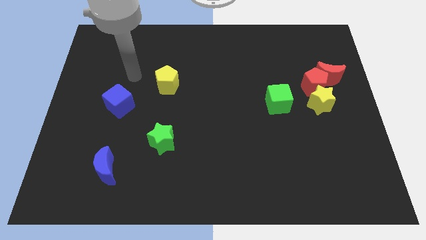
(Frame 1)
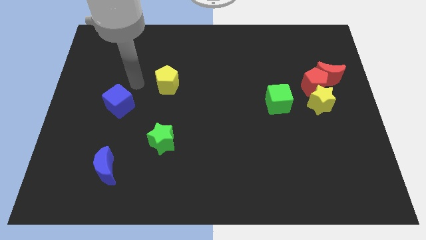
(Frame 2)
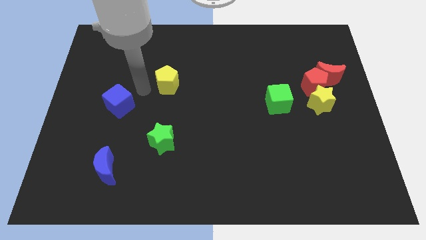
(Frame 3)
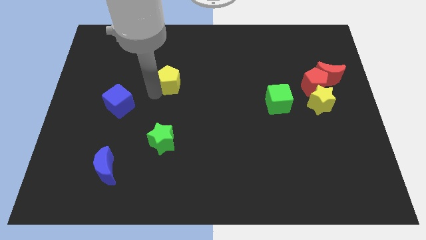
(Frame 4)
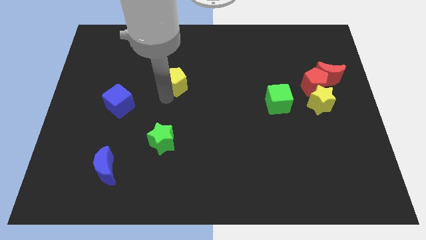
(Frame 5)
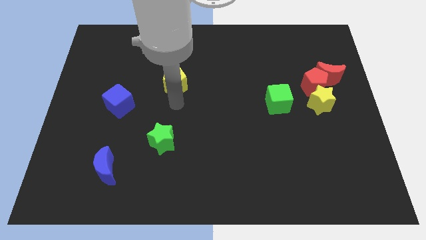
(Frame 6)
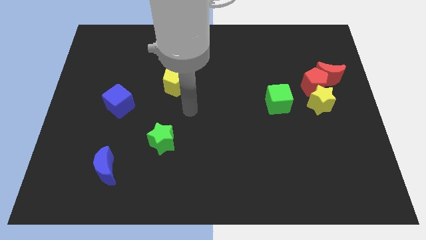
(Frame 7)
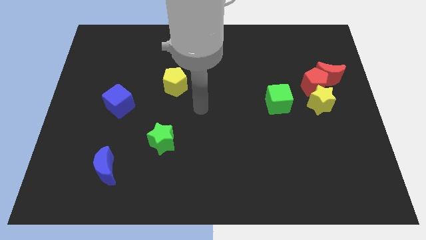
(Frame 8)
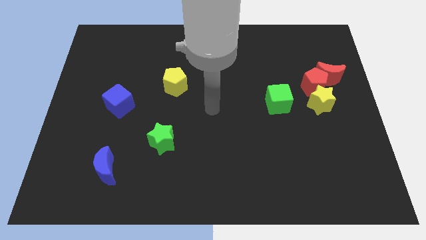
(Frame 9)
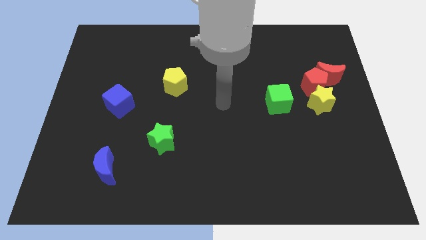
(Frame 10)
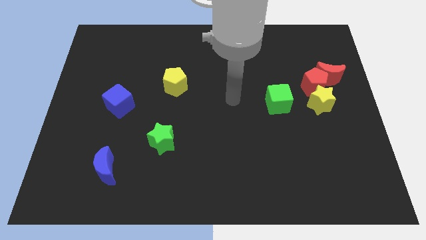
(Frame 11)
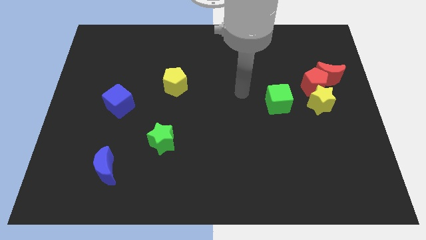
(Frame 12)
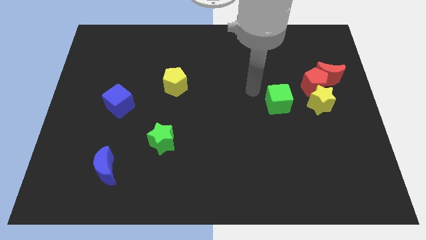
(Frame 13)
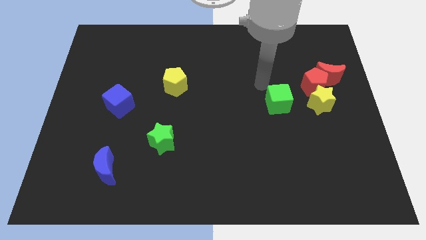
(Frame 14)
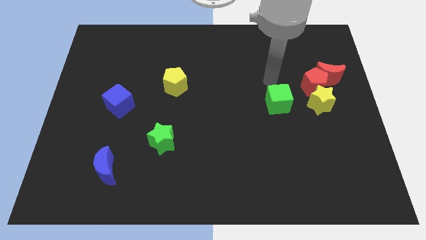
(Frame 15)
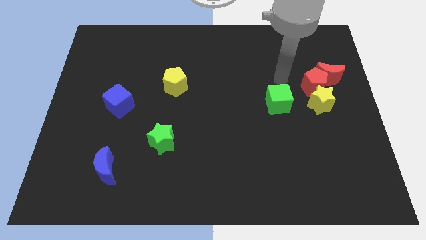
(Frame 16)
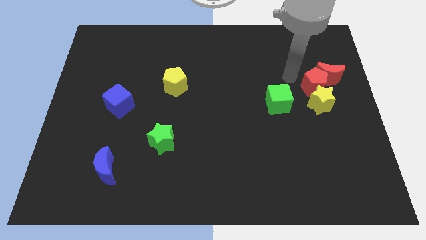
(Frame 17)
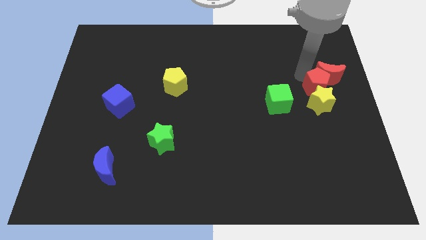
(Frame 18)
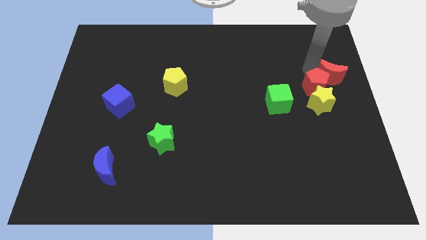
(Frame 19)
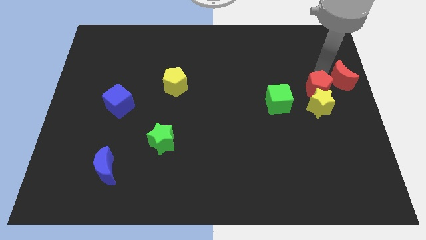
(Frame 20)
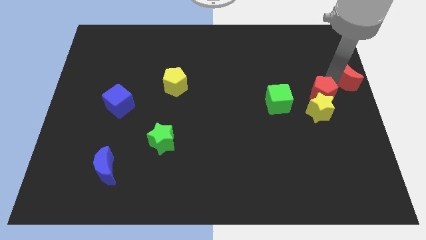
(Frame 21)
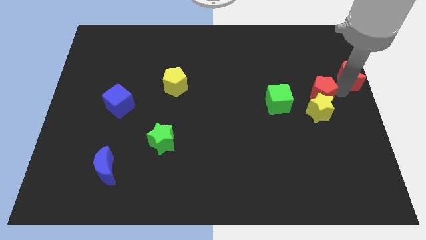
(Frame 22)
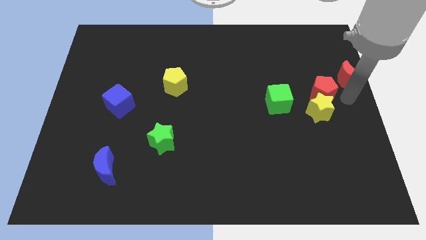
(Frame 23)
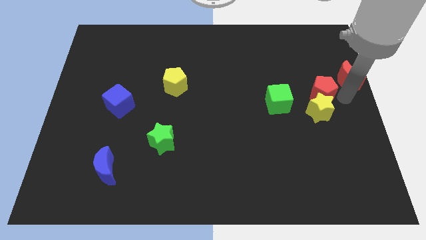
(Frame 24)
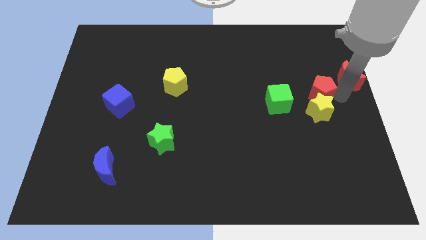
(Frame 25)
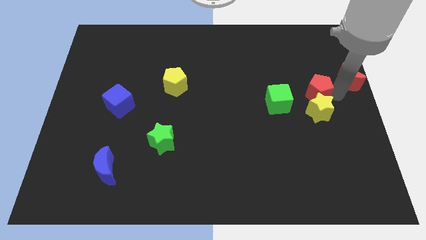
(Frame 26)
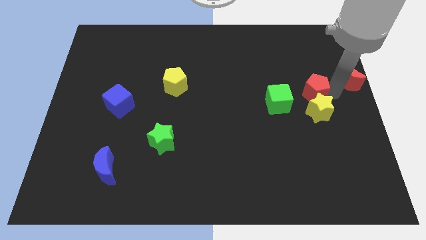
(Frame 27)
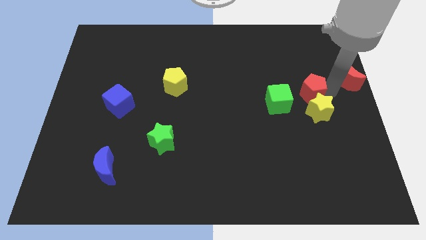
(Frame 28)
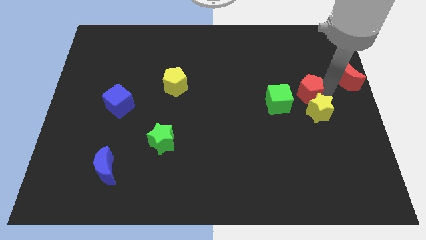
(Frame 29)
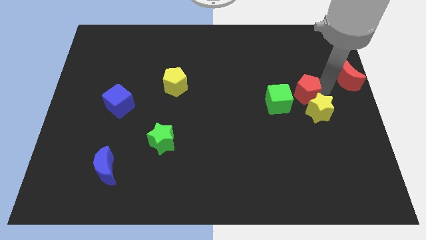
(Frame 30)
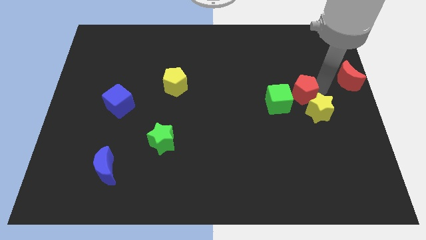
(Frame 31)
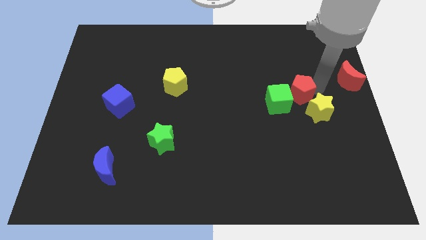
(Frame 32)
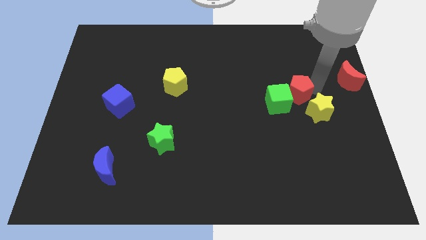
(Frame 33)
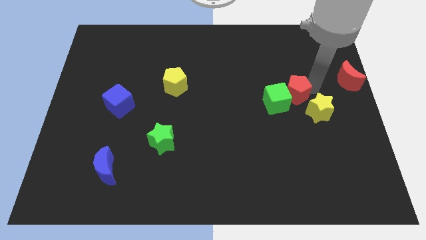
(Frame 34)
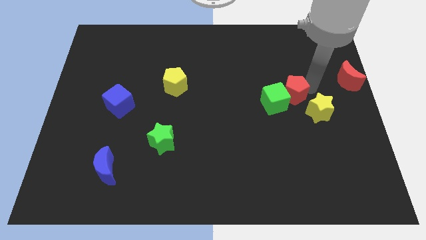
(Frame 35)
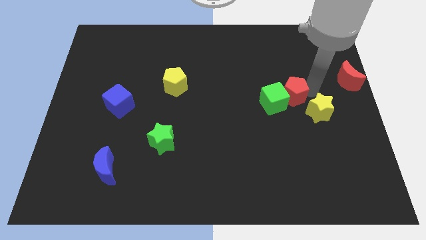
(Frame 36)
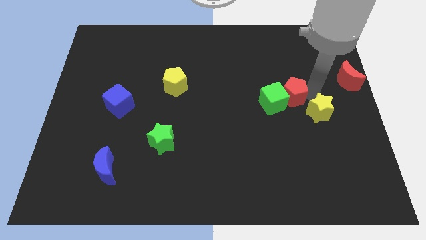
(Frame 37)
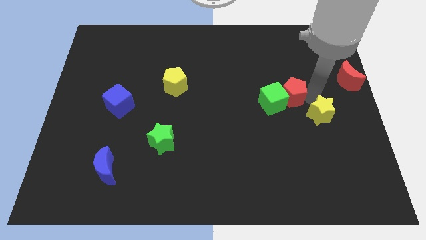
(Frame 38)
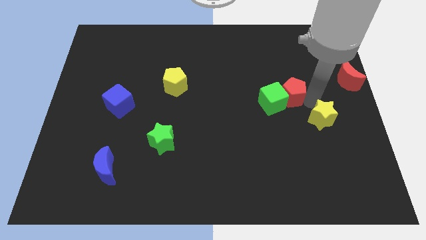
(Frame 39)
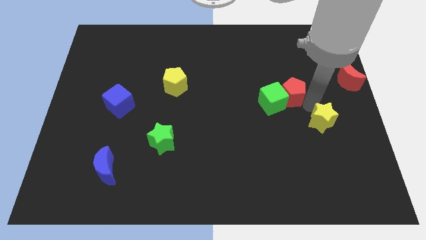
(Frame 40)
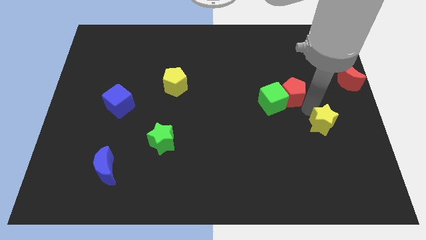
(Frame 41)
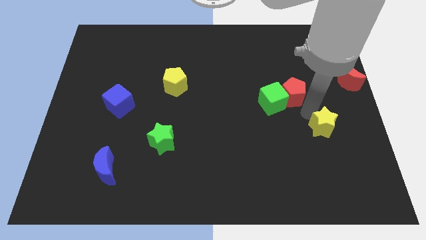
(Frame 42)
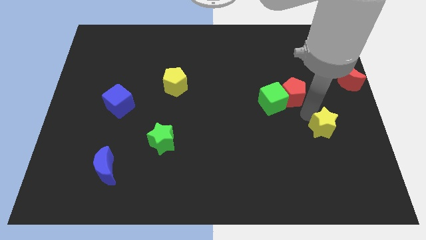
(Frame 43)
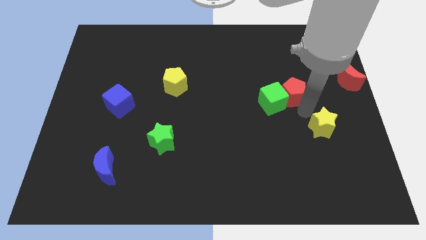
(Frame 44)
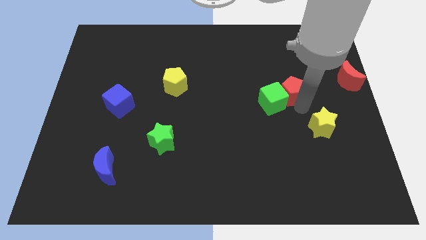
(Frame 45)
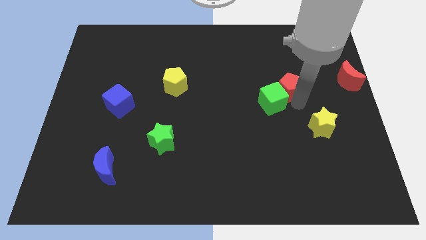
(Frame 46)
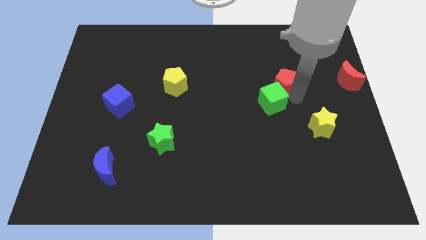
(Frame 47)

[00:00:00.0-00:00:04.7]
push the red pentagon left a bit

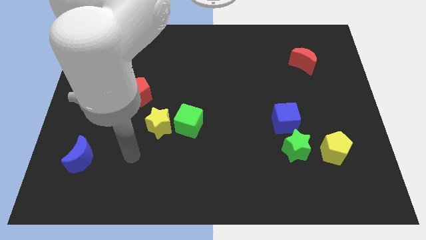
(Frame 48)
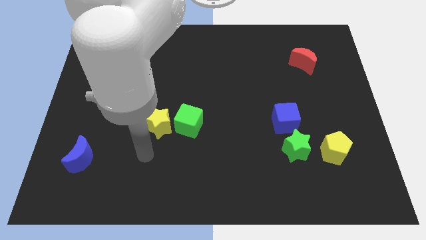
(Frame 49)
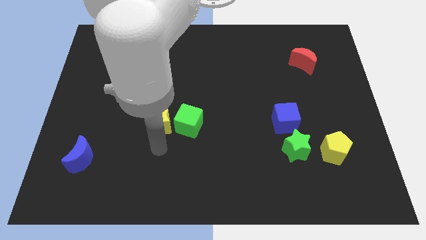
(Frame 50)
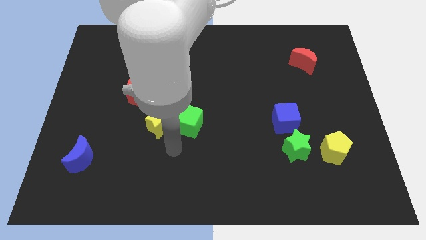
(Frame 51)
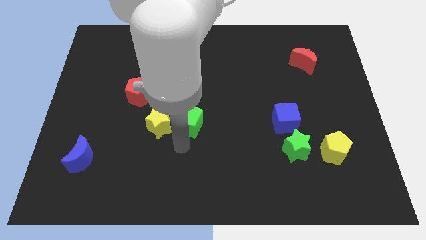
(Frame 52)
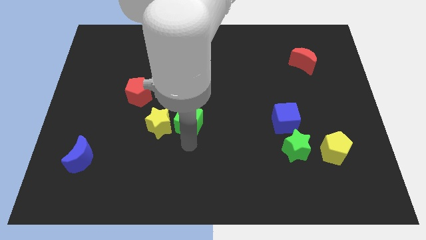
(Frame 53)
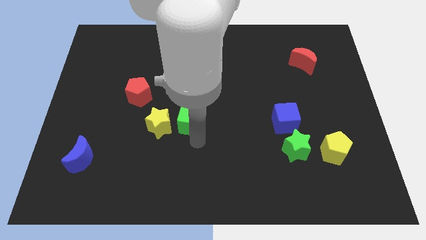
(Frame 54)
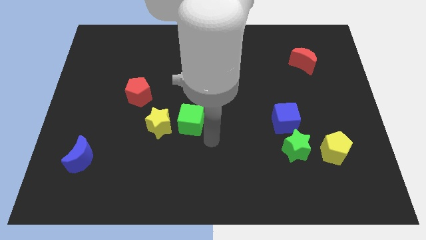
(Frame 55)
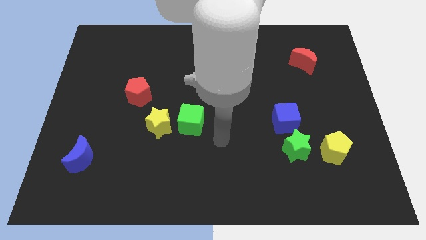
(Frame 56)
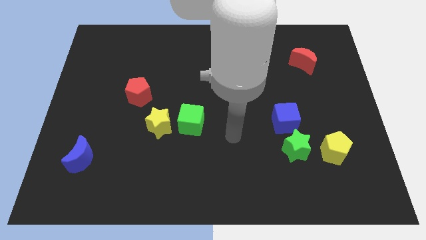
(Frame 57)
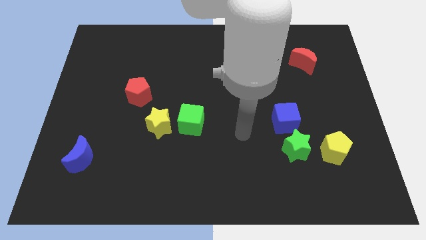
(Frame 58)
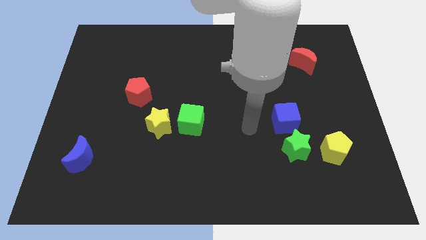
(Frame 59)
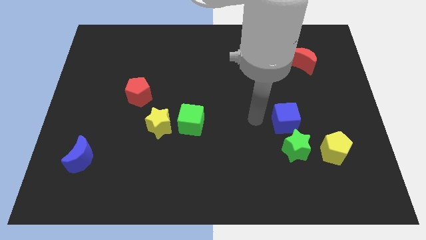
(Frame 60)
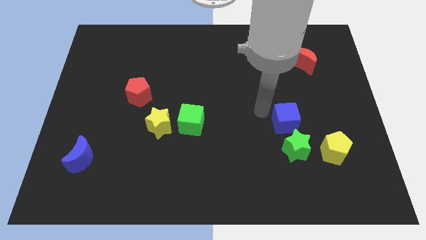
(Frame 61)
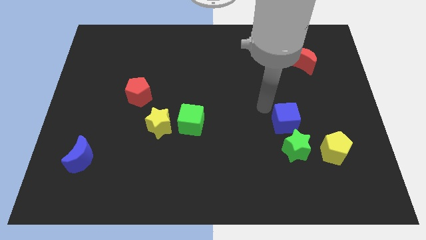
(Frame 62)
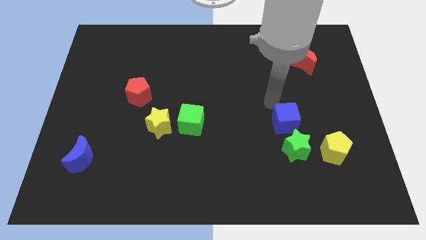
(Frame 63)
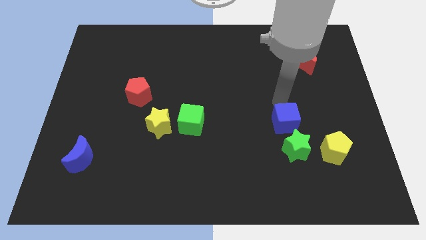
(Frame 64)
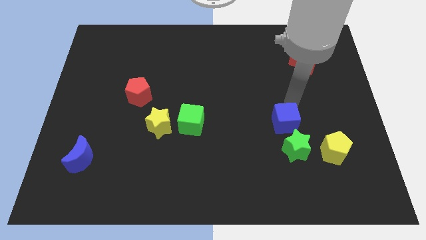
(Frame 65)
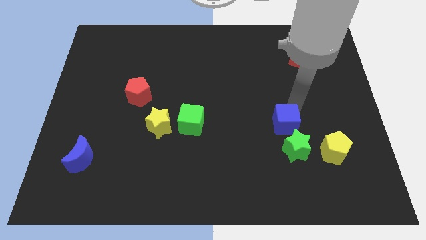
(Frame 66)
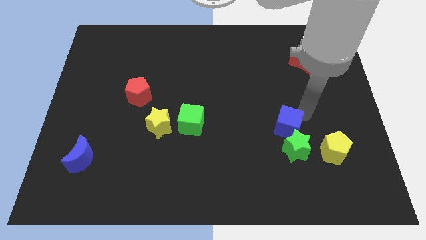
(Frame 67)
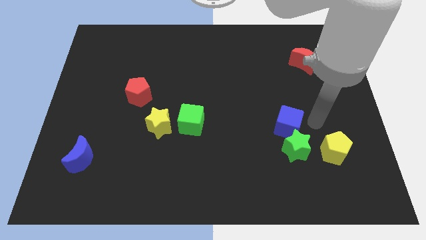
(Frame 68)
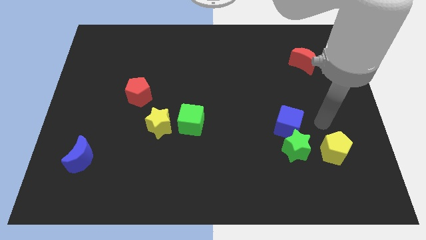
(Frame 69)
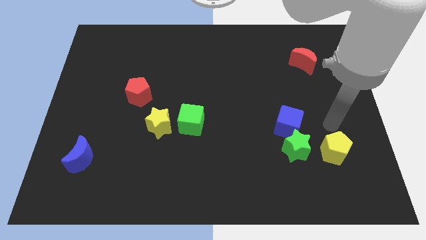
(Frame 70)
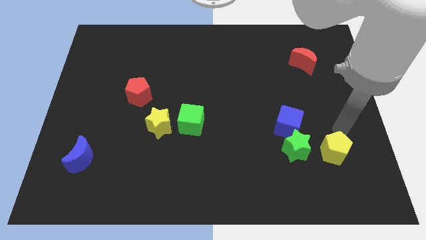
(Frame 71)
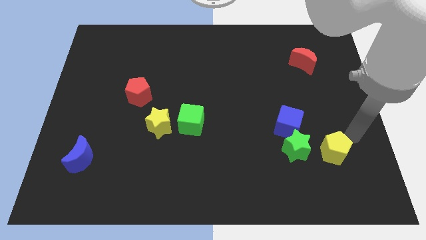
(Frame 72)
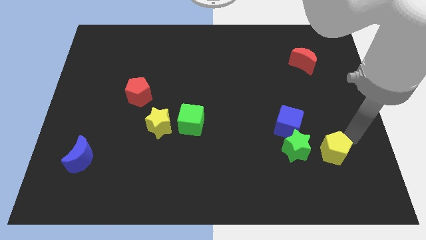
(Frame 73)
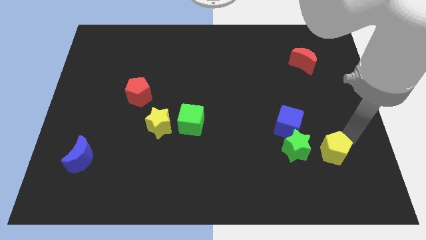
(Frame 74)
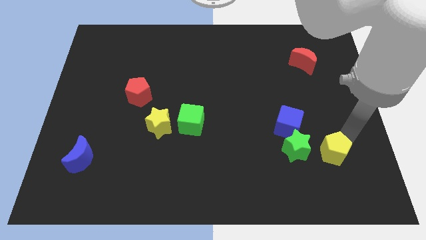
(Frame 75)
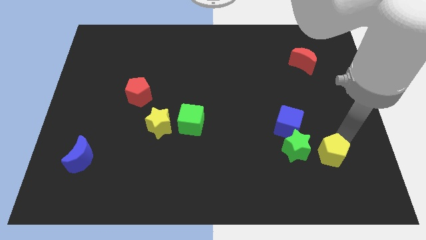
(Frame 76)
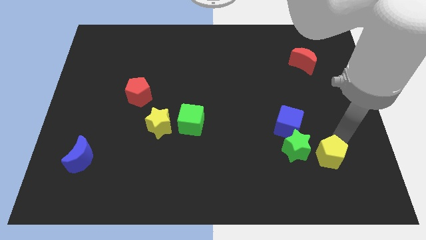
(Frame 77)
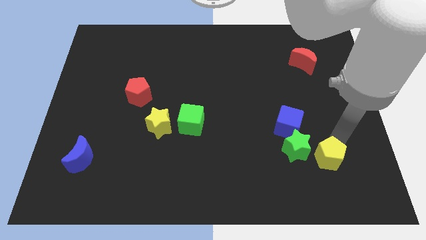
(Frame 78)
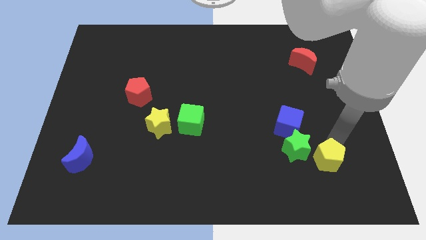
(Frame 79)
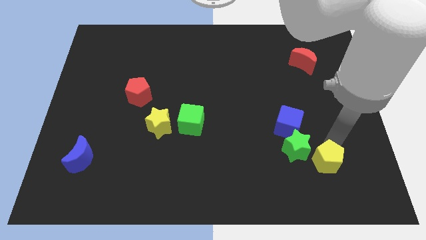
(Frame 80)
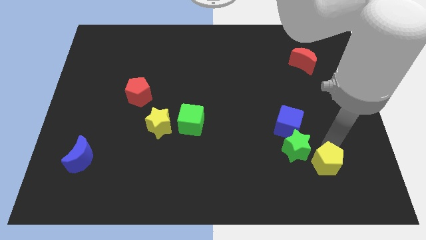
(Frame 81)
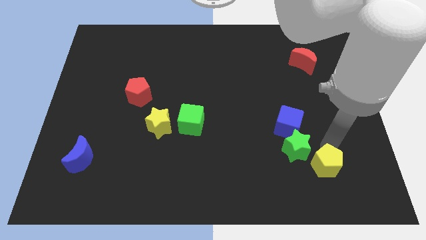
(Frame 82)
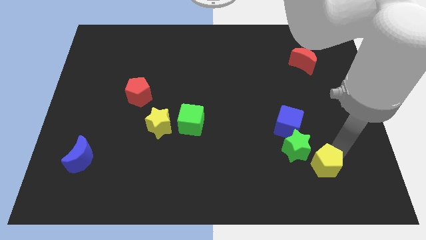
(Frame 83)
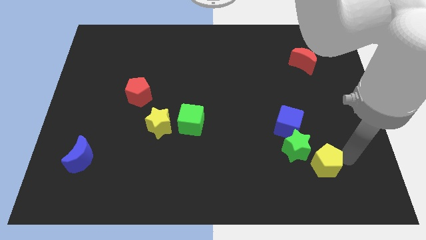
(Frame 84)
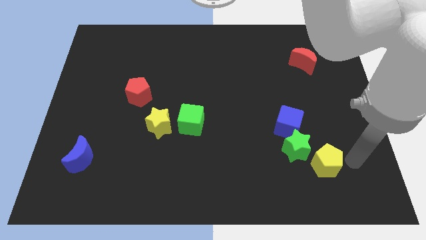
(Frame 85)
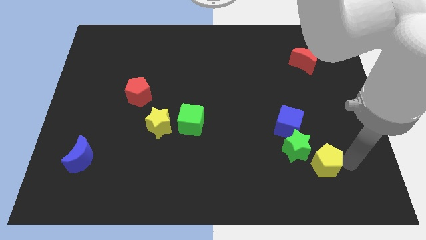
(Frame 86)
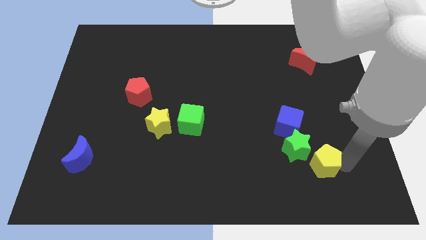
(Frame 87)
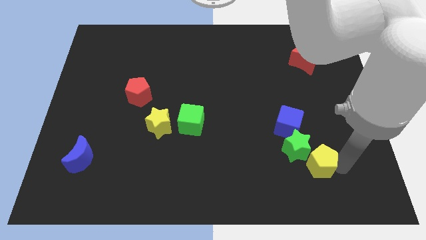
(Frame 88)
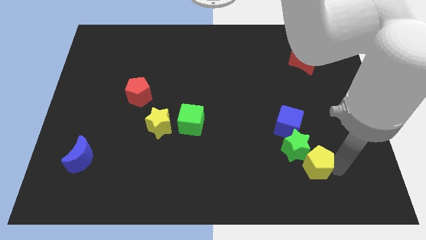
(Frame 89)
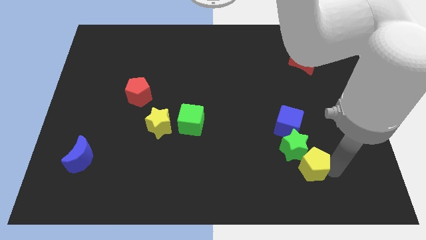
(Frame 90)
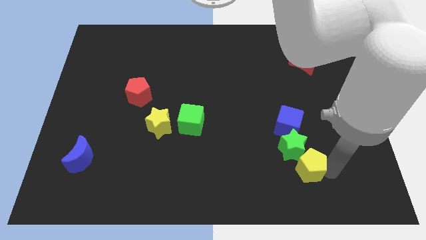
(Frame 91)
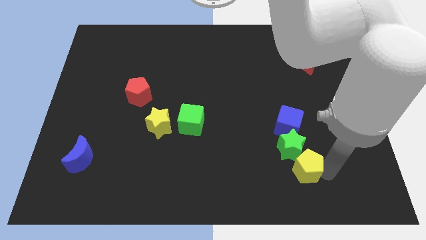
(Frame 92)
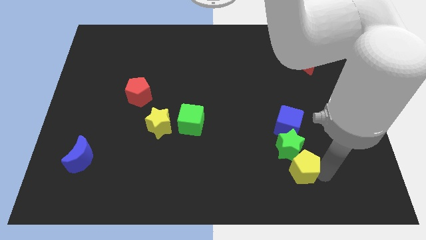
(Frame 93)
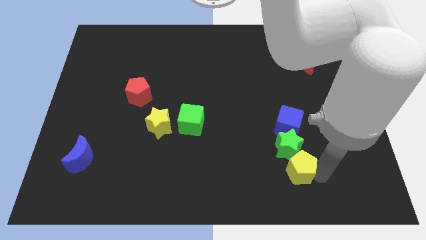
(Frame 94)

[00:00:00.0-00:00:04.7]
push the yellow pentagon a little bit to the left
